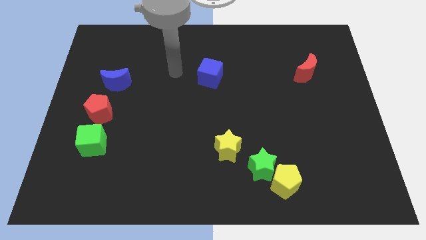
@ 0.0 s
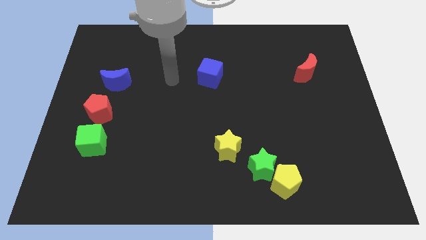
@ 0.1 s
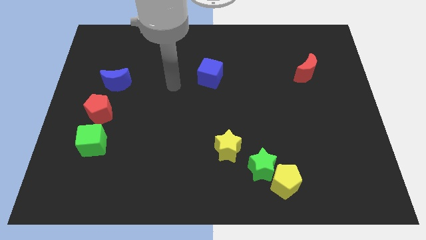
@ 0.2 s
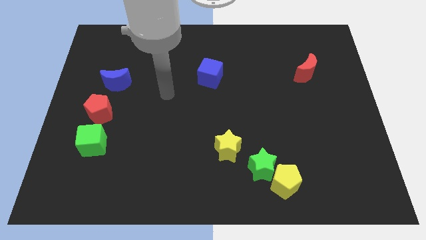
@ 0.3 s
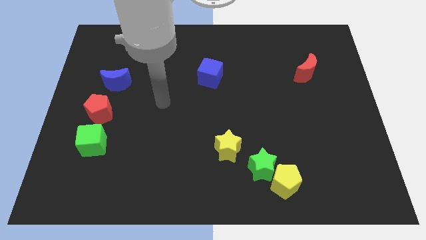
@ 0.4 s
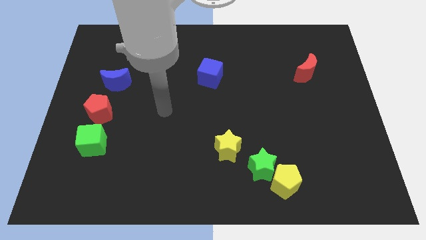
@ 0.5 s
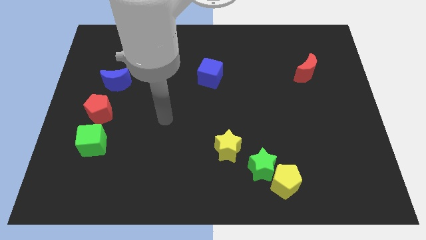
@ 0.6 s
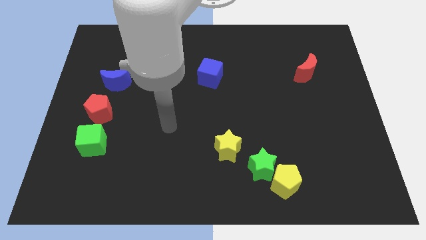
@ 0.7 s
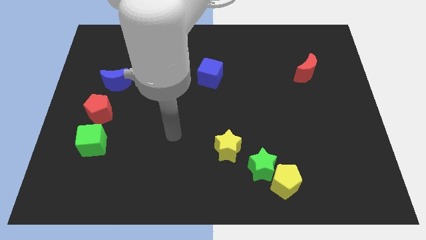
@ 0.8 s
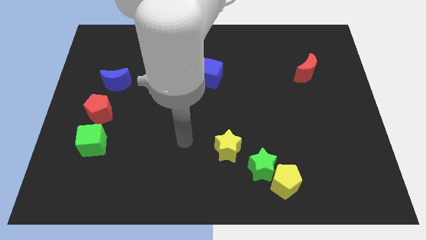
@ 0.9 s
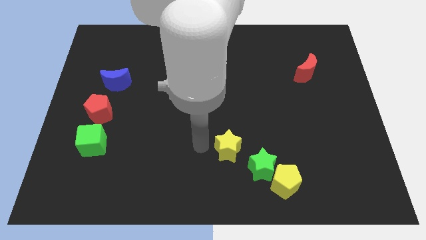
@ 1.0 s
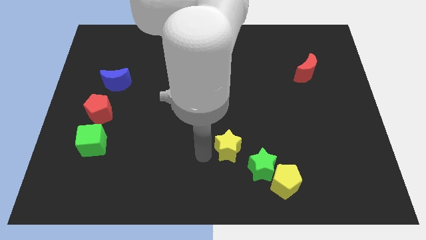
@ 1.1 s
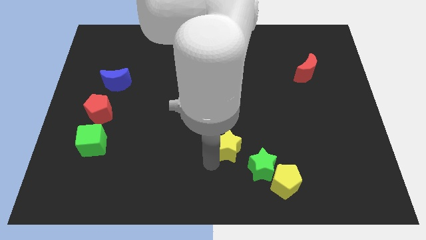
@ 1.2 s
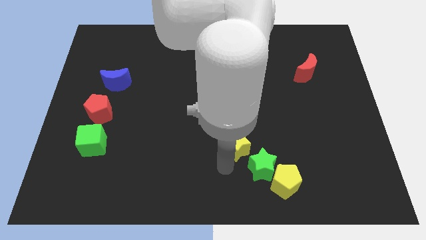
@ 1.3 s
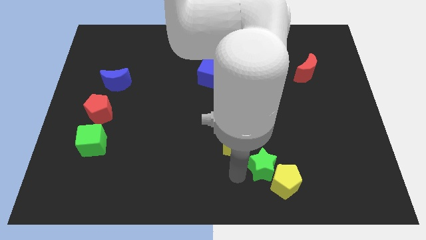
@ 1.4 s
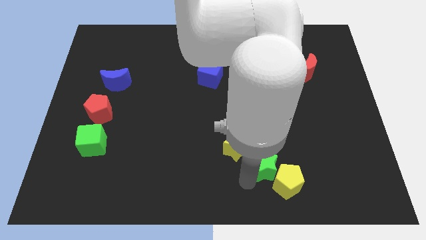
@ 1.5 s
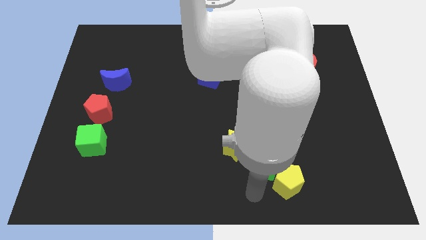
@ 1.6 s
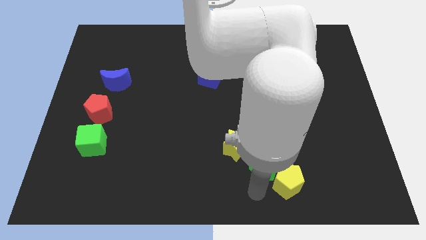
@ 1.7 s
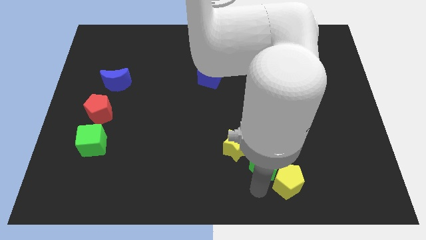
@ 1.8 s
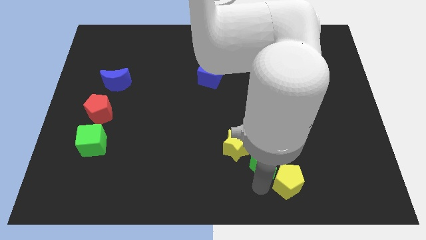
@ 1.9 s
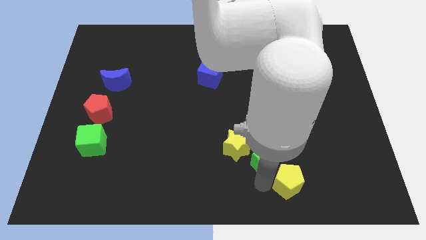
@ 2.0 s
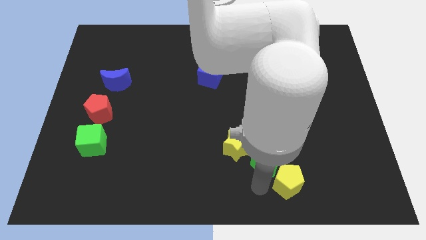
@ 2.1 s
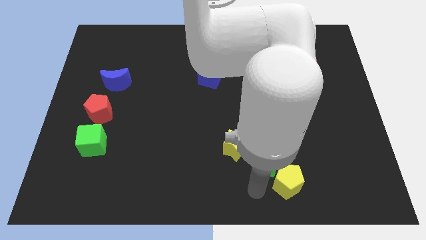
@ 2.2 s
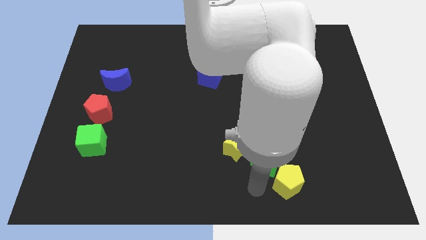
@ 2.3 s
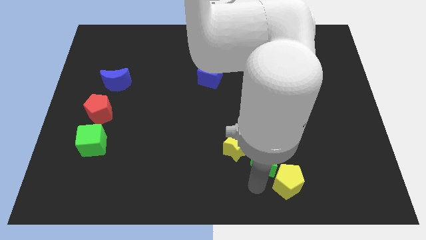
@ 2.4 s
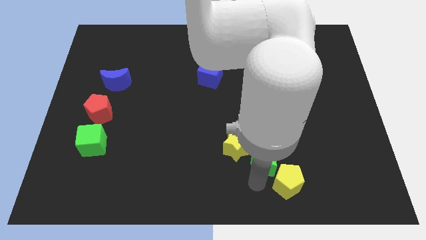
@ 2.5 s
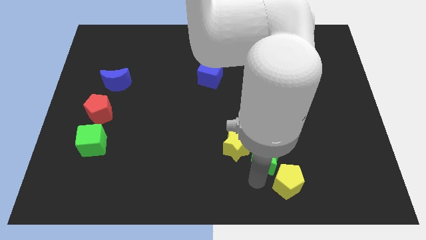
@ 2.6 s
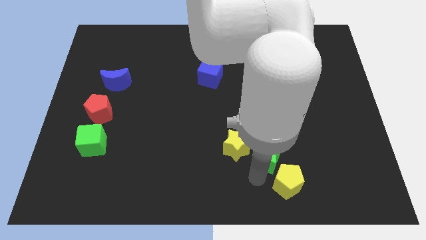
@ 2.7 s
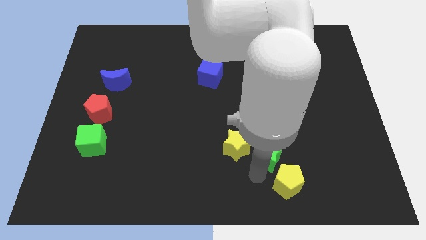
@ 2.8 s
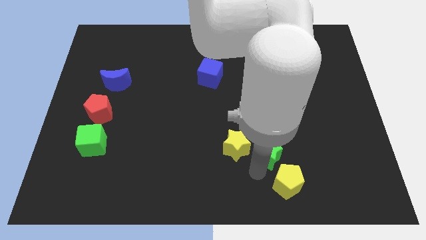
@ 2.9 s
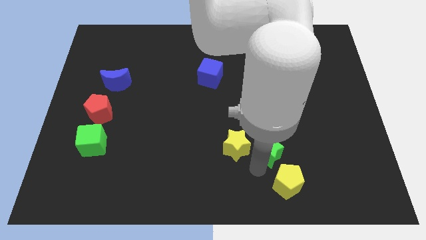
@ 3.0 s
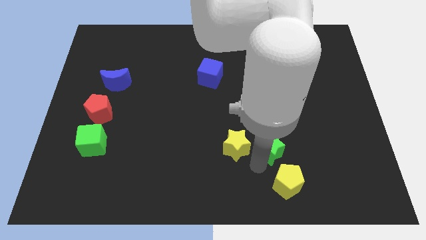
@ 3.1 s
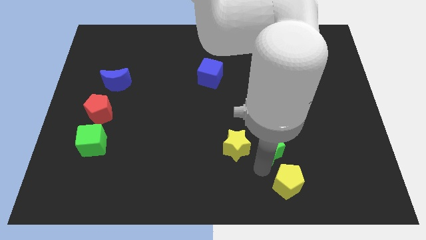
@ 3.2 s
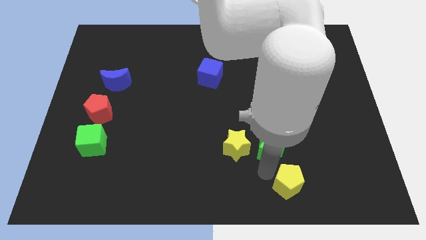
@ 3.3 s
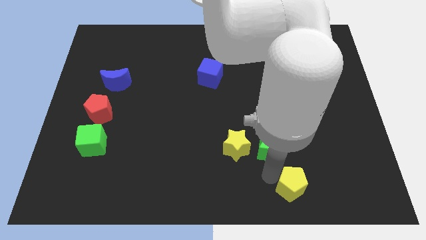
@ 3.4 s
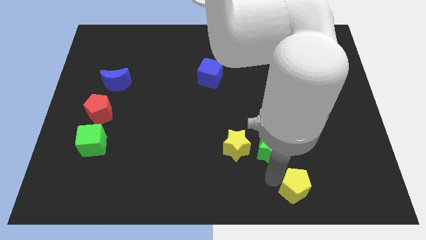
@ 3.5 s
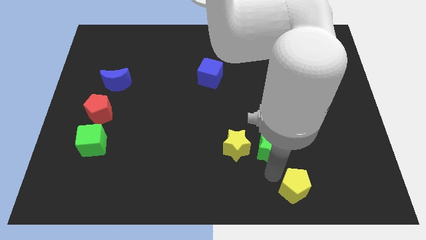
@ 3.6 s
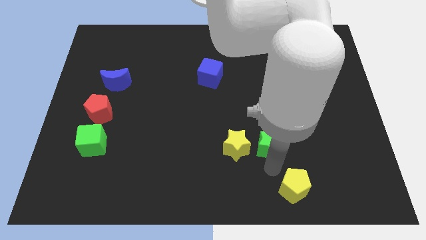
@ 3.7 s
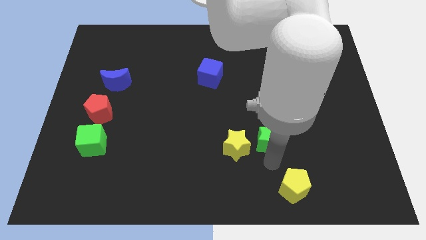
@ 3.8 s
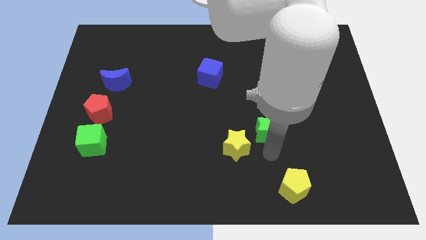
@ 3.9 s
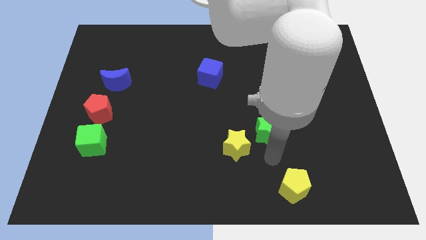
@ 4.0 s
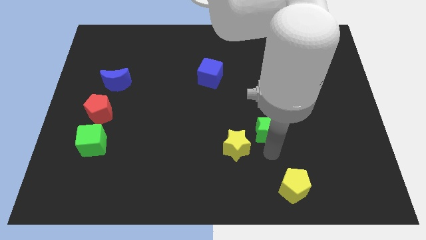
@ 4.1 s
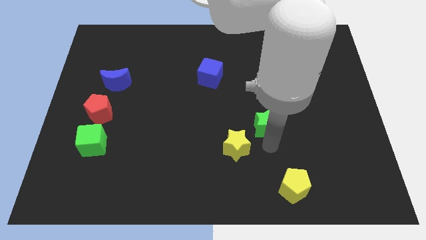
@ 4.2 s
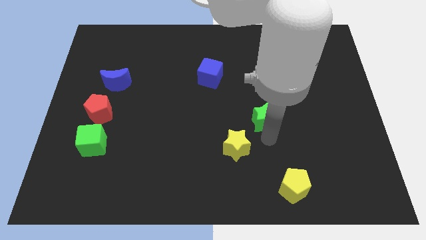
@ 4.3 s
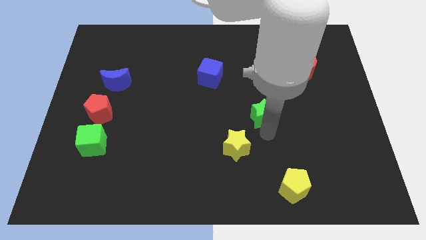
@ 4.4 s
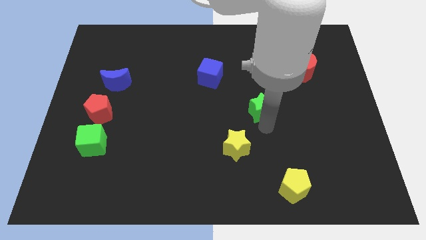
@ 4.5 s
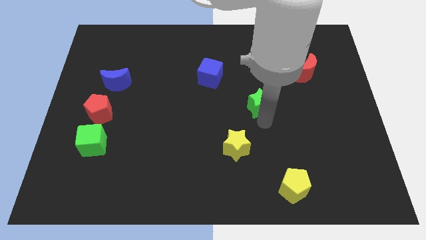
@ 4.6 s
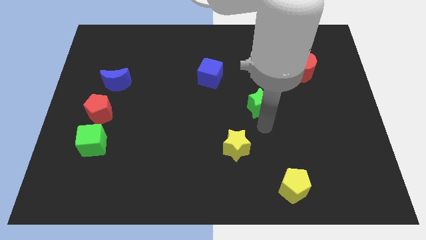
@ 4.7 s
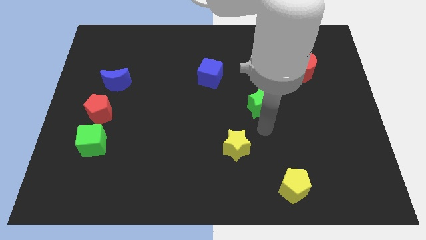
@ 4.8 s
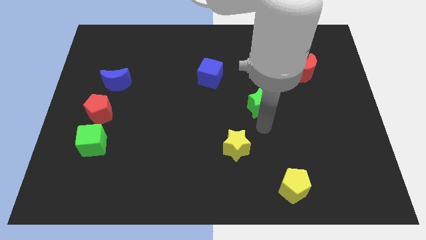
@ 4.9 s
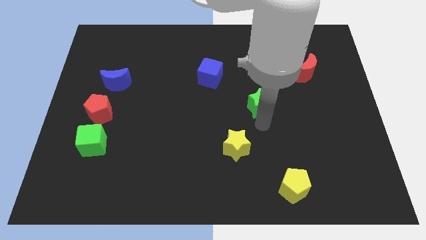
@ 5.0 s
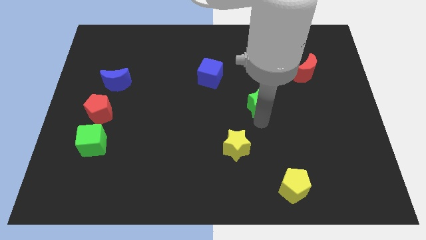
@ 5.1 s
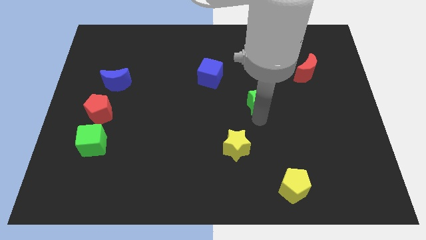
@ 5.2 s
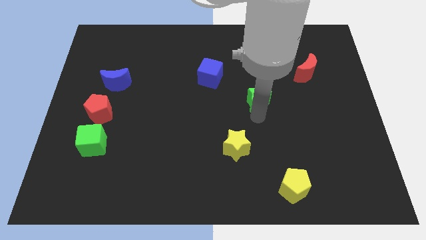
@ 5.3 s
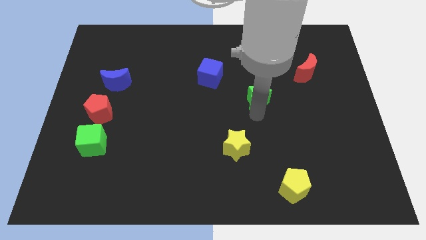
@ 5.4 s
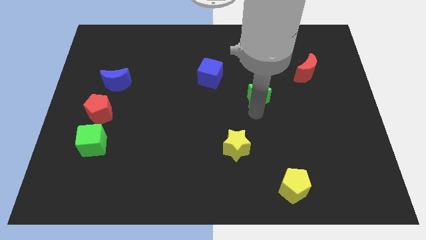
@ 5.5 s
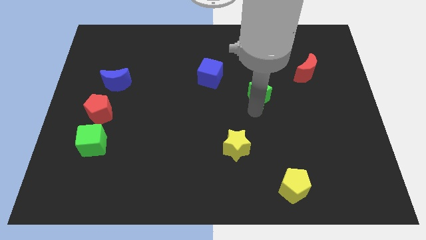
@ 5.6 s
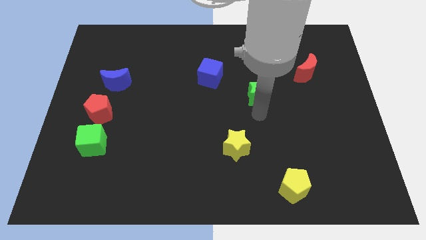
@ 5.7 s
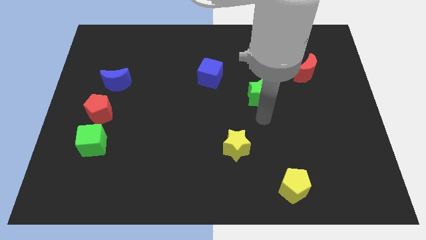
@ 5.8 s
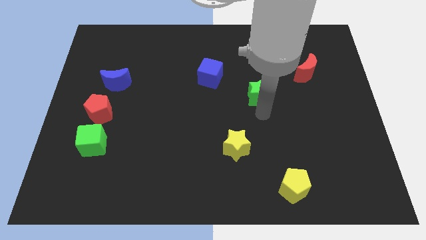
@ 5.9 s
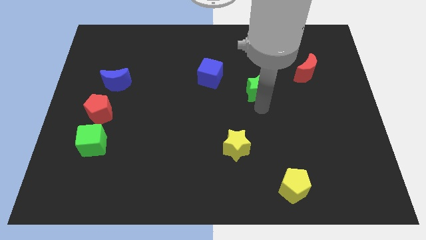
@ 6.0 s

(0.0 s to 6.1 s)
move the green star up

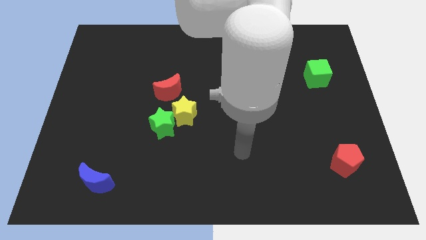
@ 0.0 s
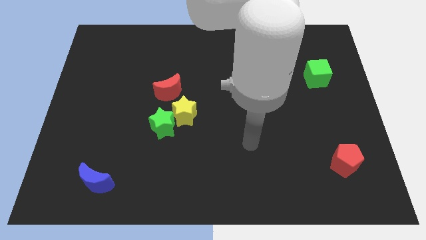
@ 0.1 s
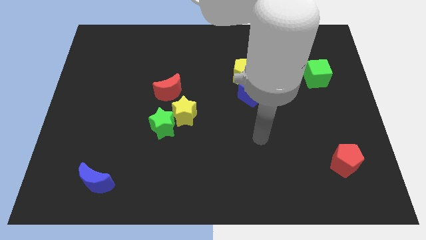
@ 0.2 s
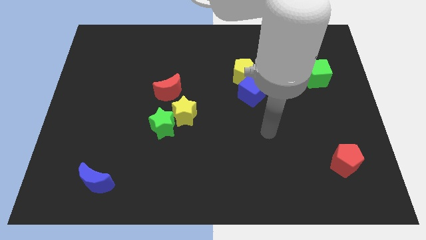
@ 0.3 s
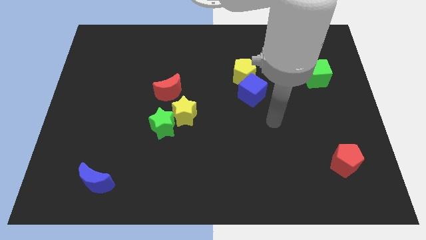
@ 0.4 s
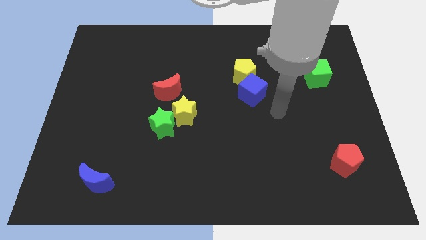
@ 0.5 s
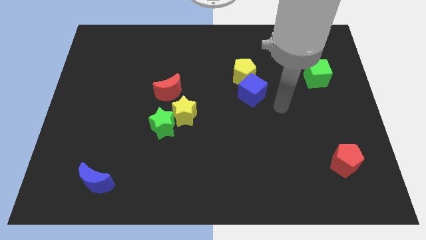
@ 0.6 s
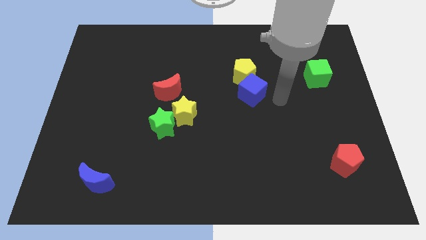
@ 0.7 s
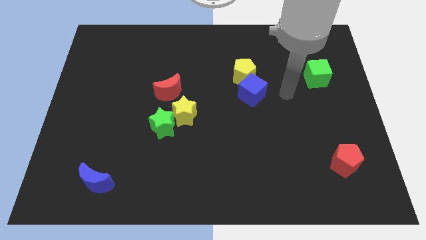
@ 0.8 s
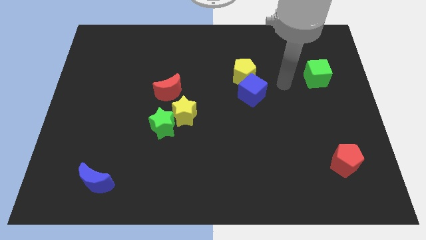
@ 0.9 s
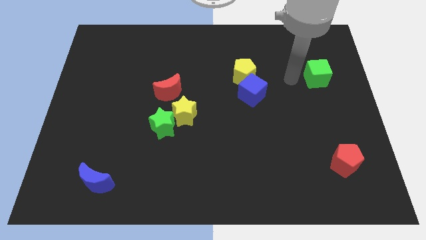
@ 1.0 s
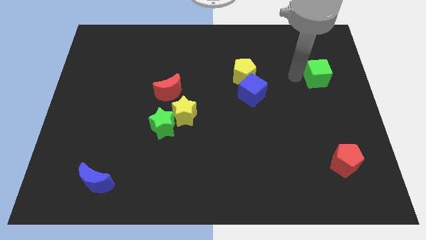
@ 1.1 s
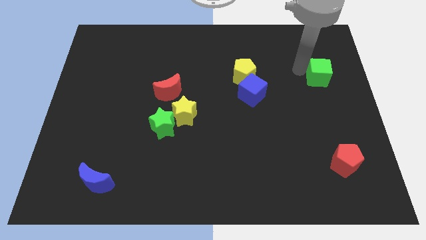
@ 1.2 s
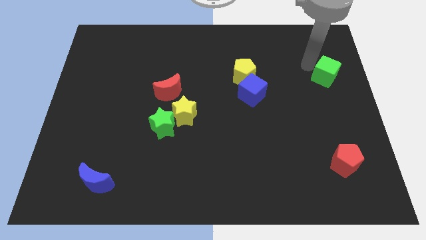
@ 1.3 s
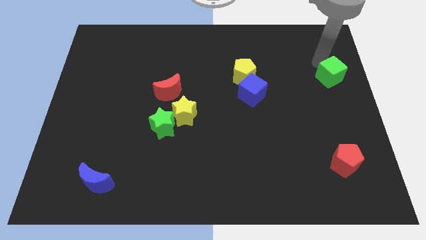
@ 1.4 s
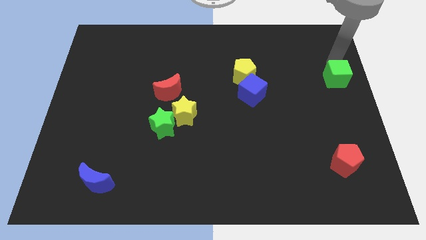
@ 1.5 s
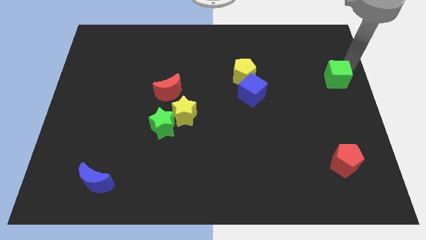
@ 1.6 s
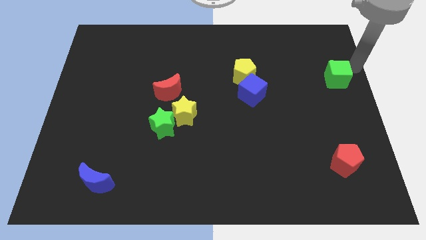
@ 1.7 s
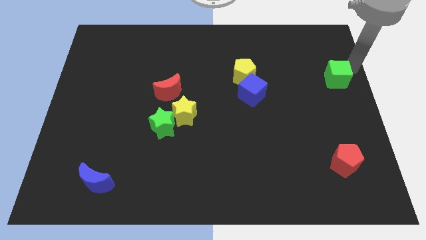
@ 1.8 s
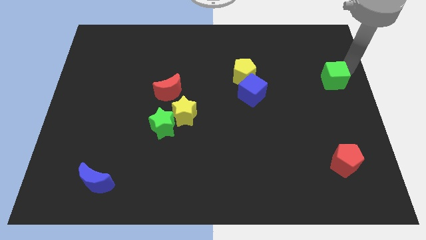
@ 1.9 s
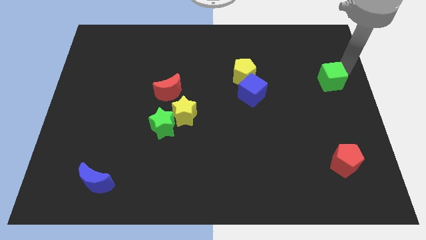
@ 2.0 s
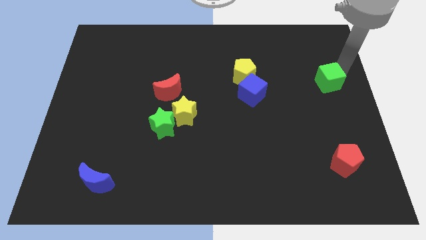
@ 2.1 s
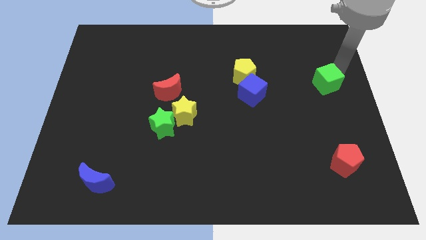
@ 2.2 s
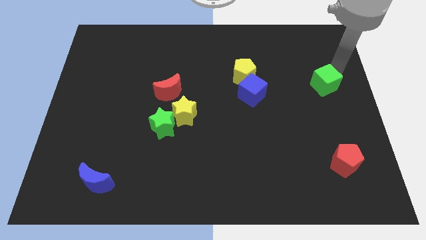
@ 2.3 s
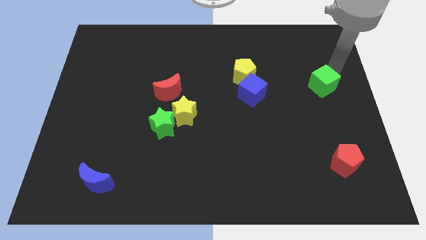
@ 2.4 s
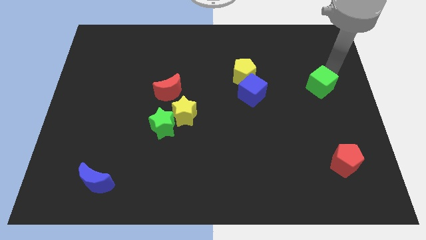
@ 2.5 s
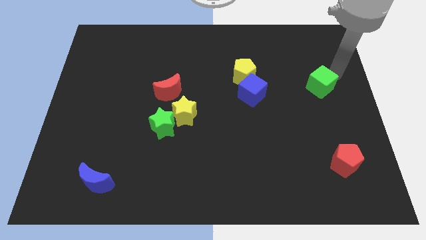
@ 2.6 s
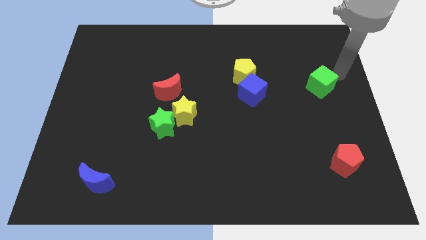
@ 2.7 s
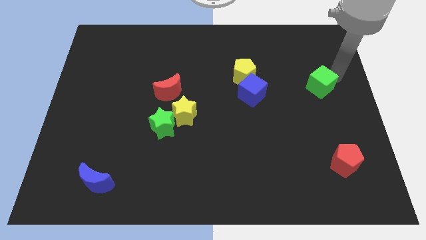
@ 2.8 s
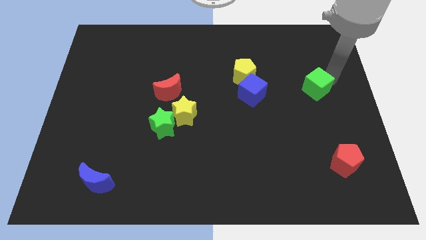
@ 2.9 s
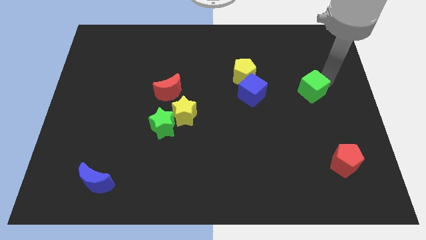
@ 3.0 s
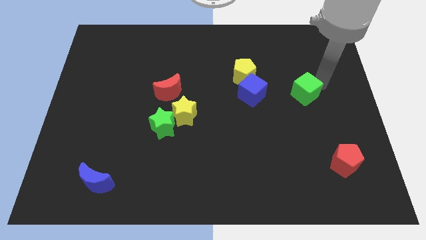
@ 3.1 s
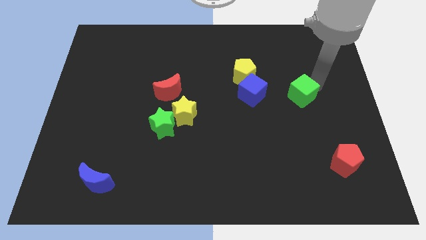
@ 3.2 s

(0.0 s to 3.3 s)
slightly move the green cube downwards and left diagonally
